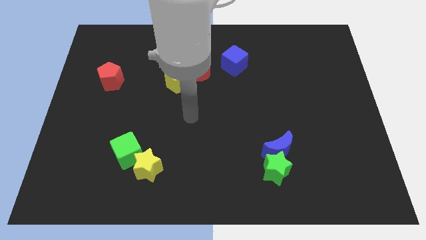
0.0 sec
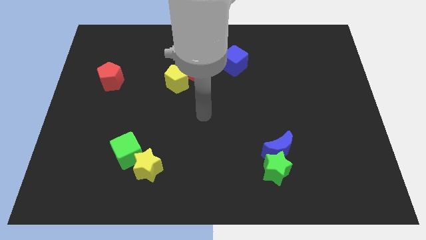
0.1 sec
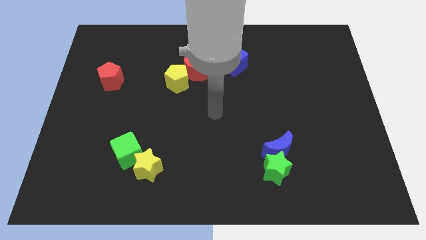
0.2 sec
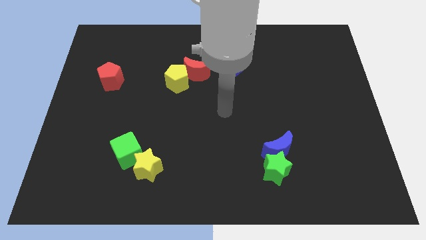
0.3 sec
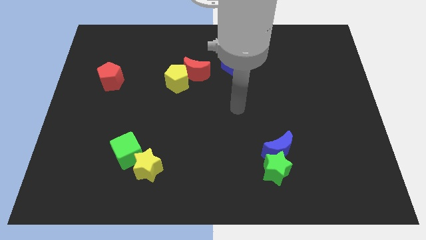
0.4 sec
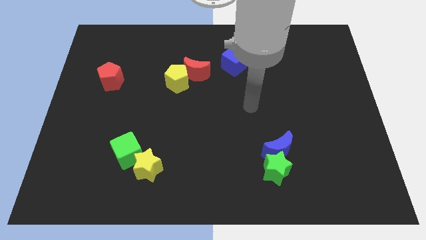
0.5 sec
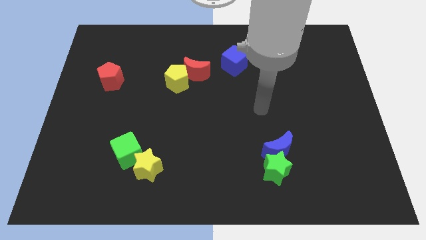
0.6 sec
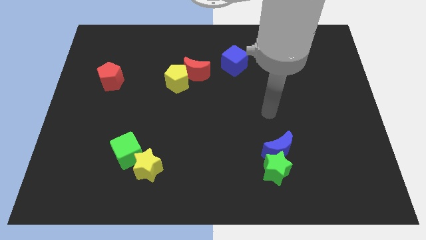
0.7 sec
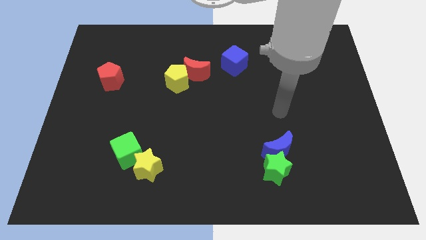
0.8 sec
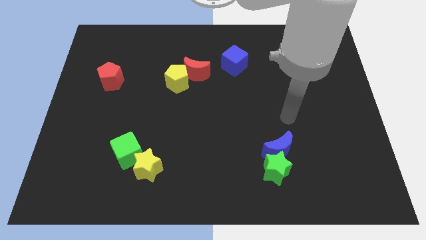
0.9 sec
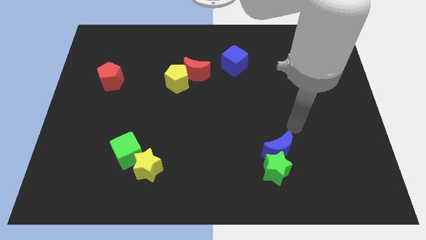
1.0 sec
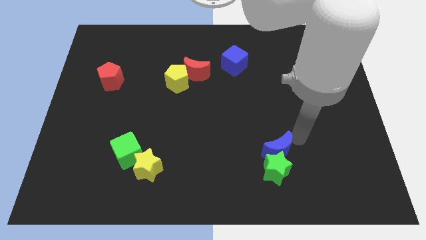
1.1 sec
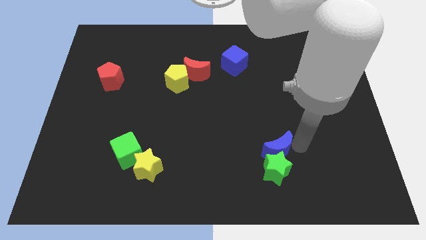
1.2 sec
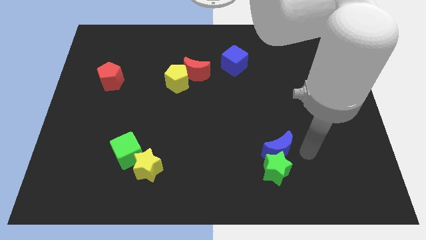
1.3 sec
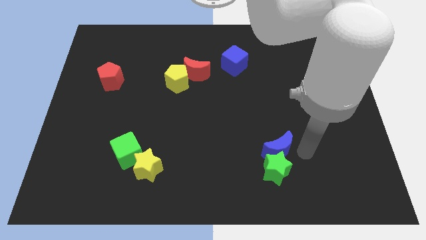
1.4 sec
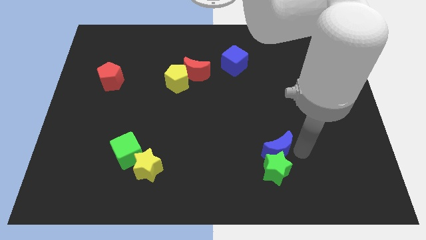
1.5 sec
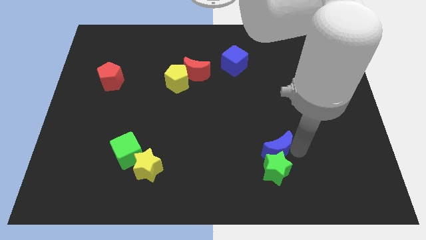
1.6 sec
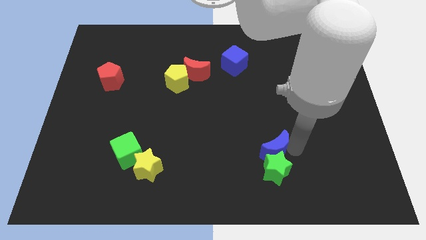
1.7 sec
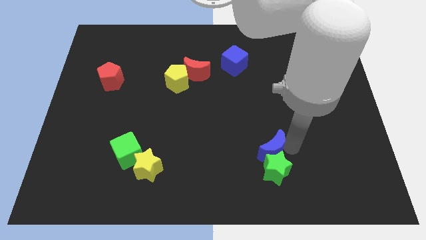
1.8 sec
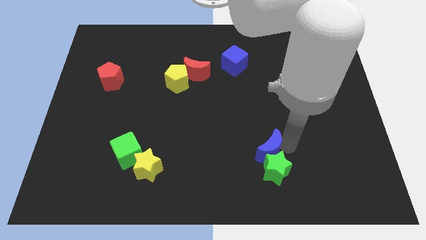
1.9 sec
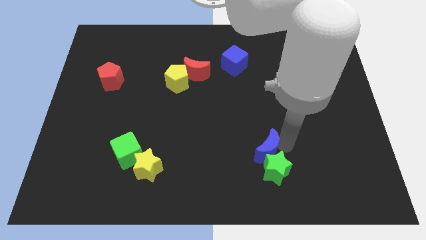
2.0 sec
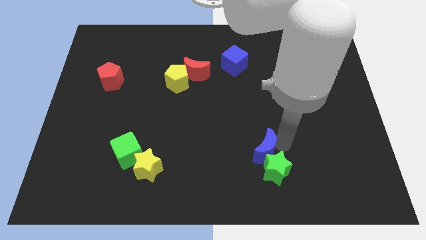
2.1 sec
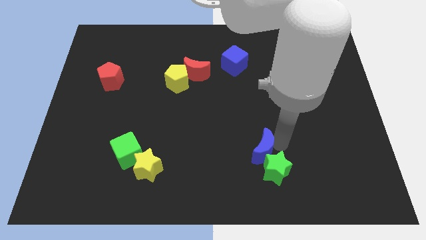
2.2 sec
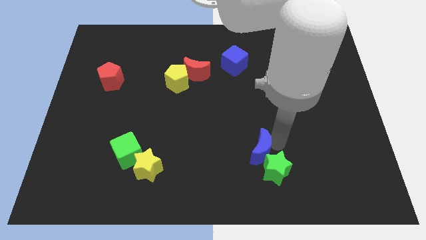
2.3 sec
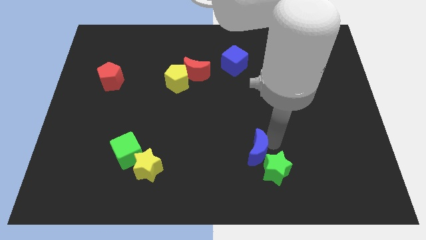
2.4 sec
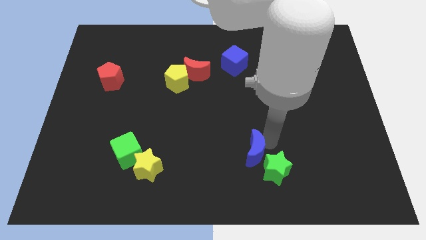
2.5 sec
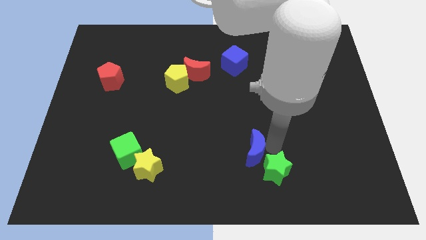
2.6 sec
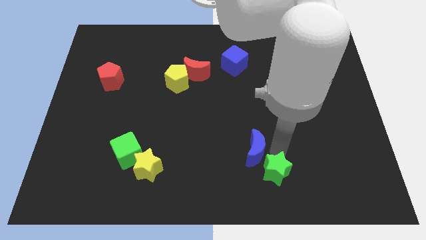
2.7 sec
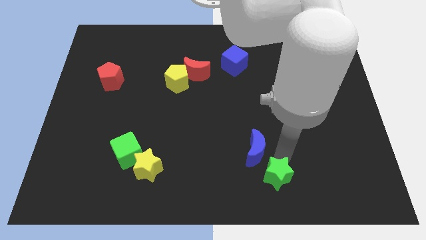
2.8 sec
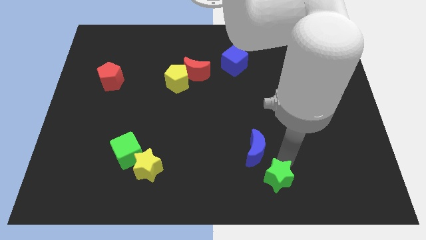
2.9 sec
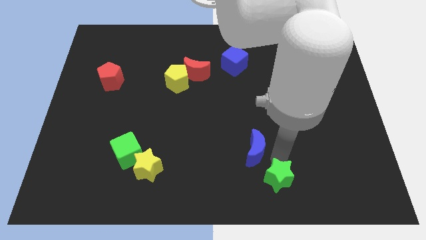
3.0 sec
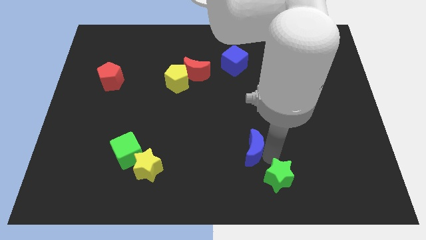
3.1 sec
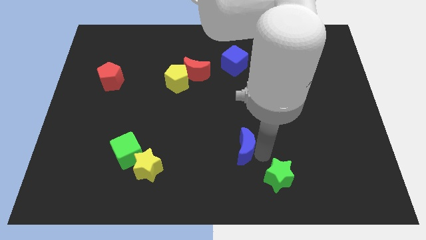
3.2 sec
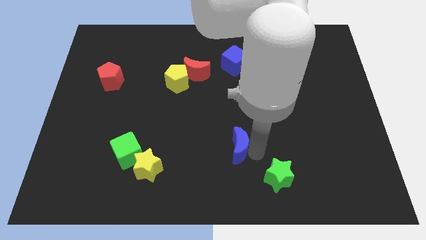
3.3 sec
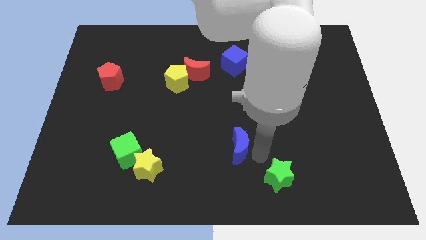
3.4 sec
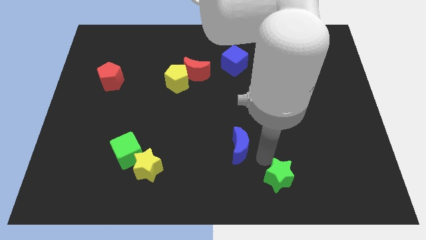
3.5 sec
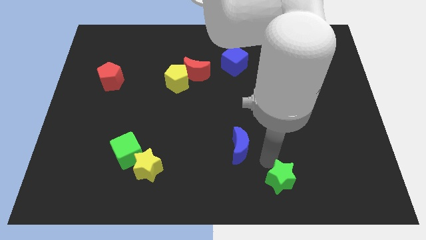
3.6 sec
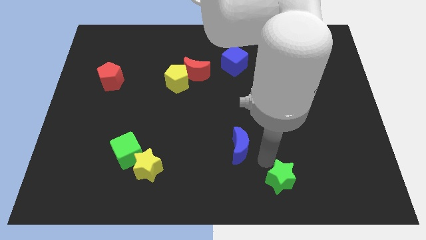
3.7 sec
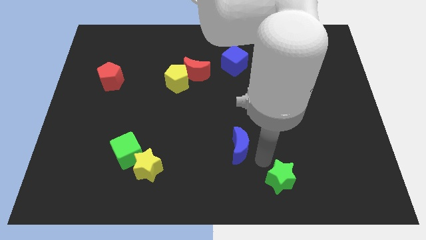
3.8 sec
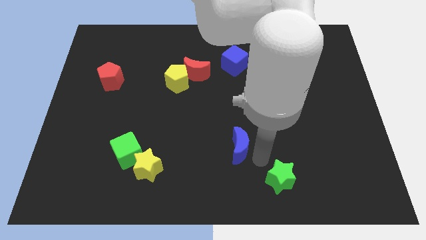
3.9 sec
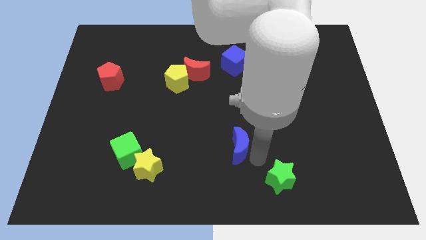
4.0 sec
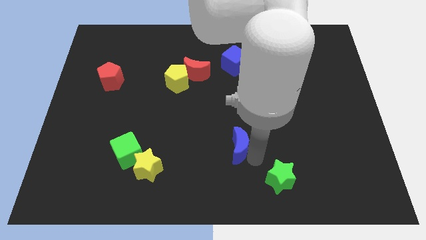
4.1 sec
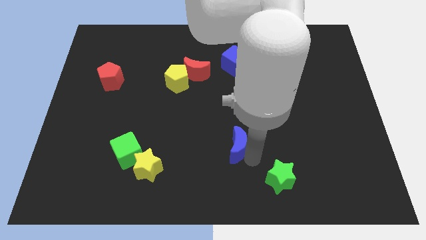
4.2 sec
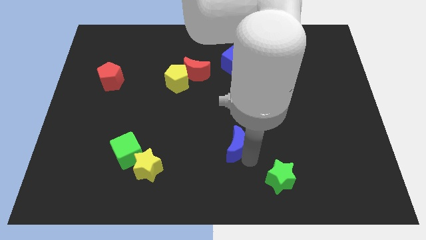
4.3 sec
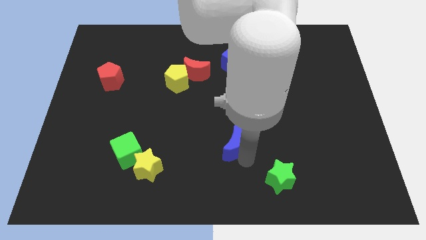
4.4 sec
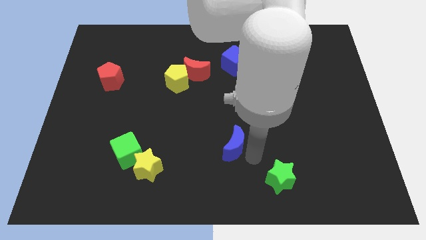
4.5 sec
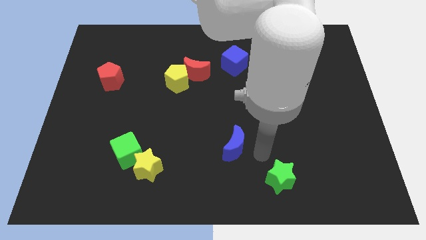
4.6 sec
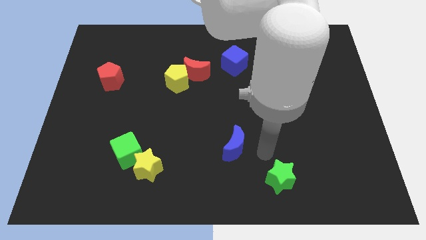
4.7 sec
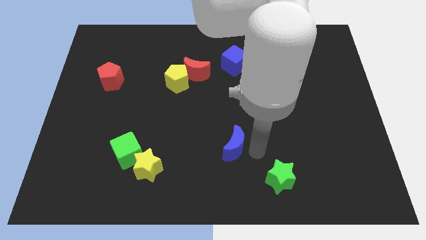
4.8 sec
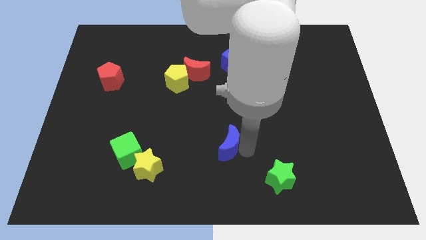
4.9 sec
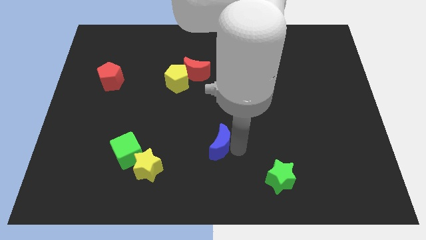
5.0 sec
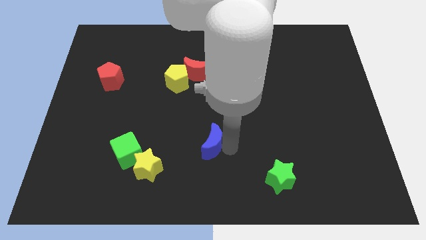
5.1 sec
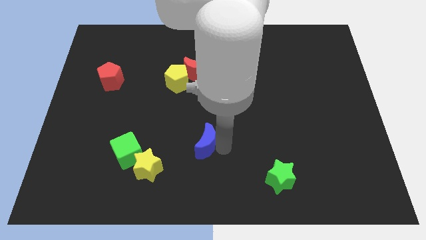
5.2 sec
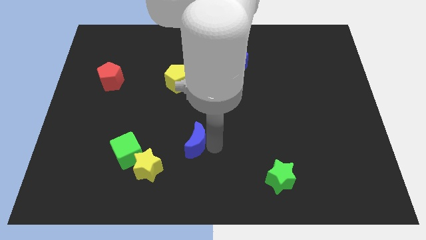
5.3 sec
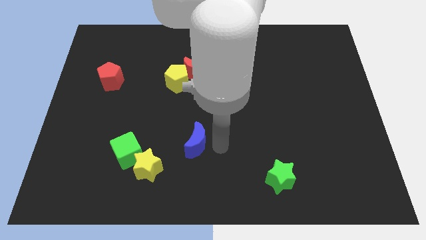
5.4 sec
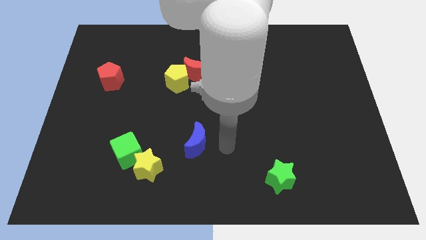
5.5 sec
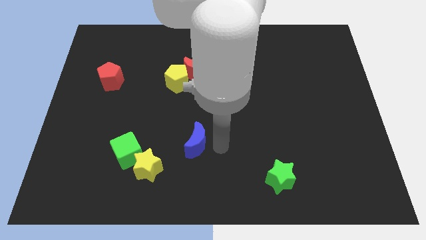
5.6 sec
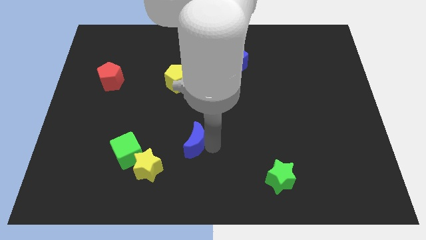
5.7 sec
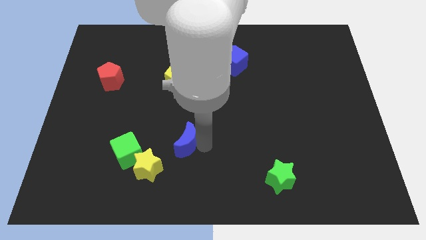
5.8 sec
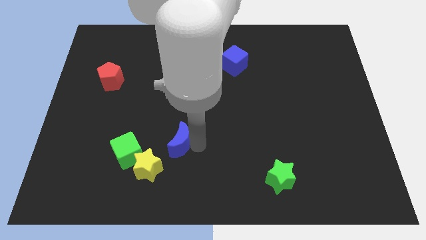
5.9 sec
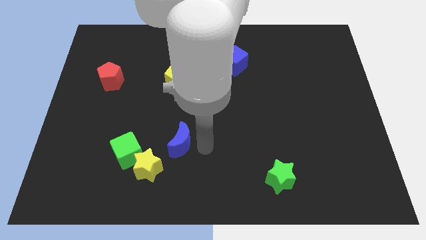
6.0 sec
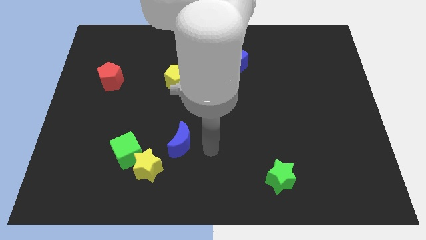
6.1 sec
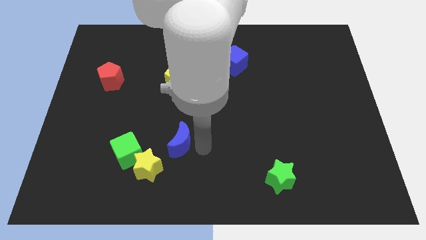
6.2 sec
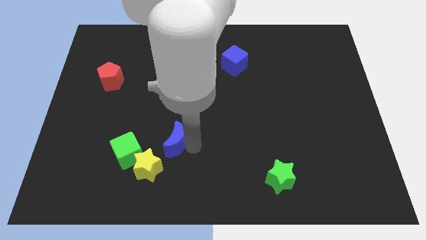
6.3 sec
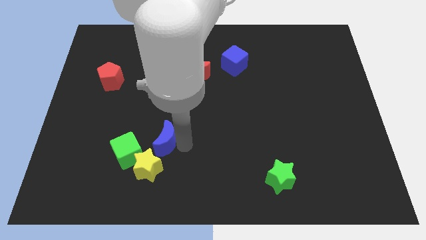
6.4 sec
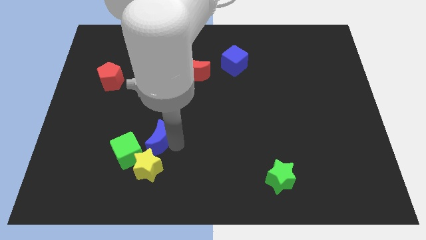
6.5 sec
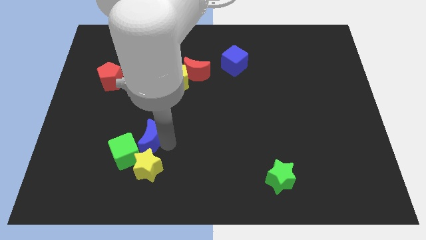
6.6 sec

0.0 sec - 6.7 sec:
move the blue moon diagonally up and to the left of the yellow star
